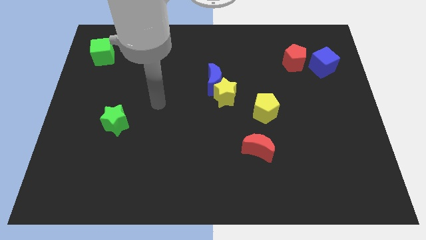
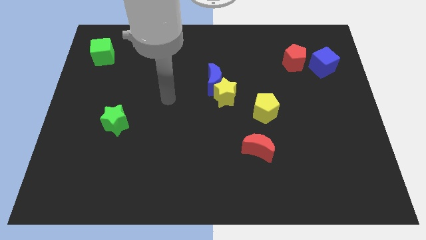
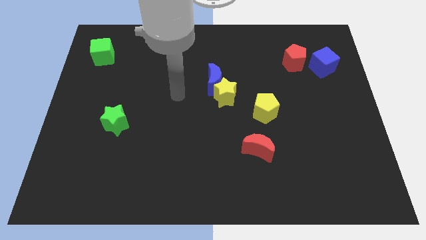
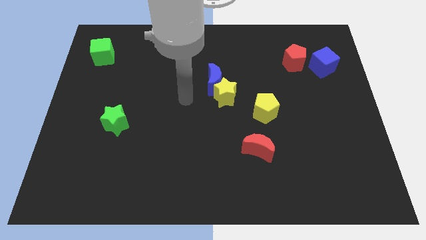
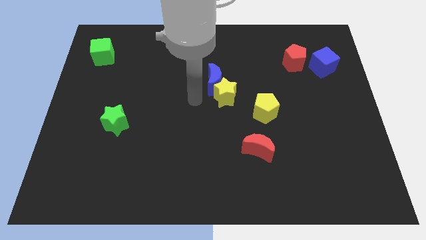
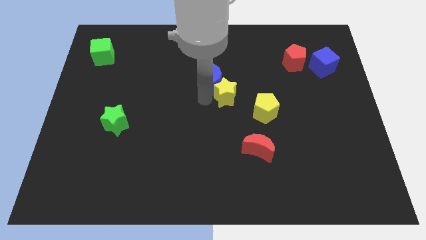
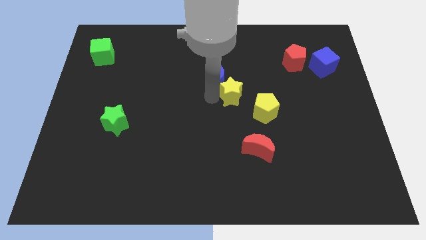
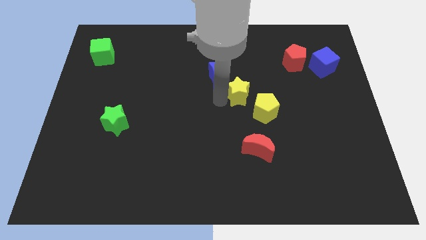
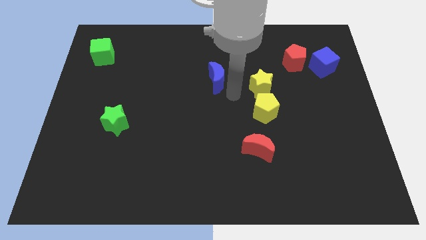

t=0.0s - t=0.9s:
pull the blue moon apart from the yellow star

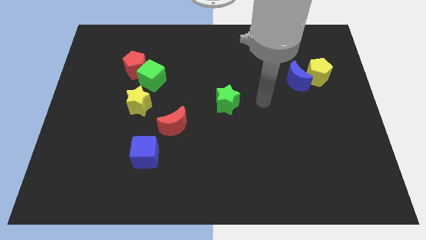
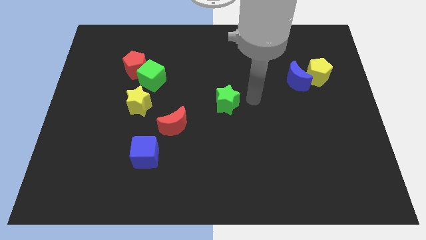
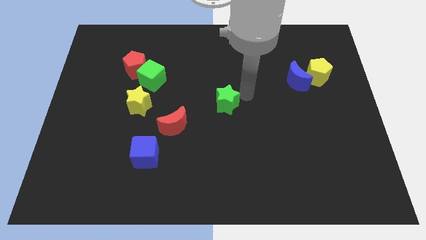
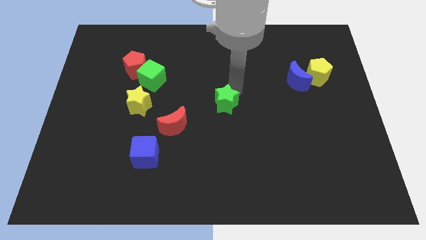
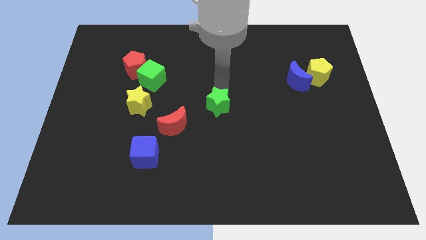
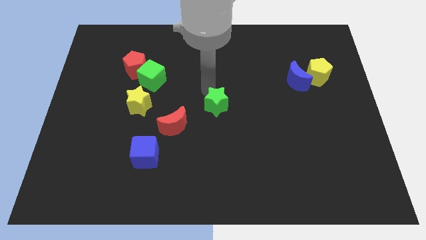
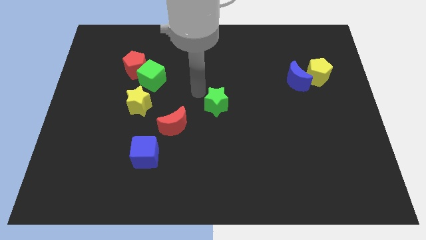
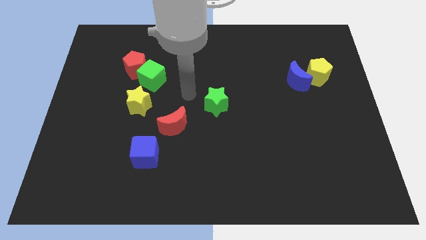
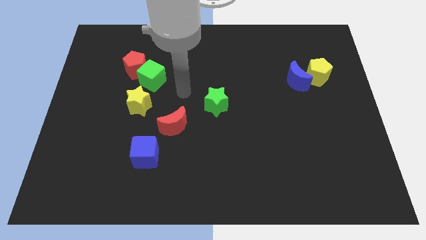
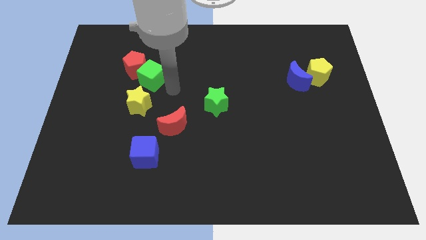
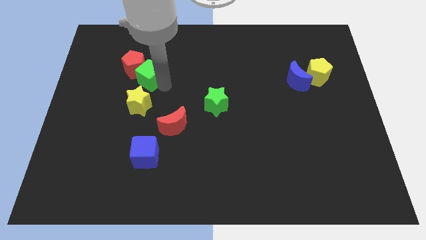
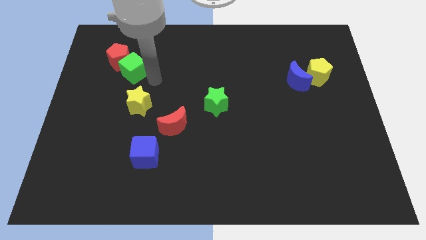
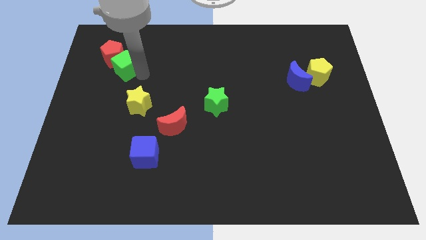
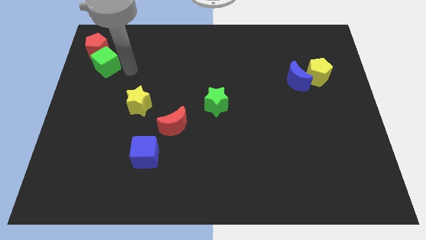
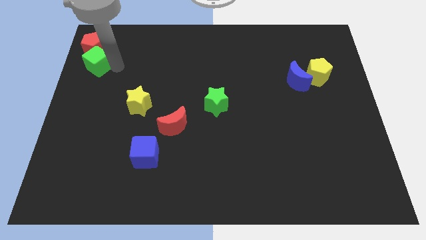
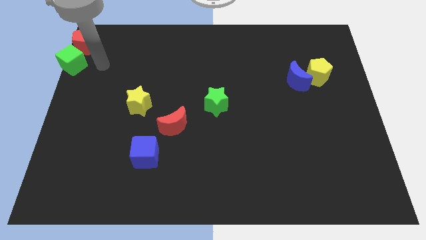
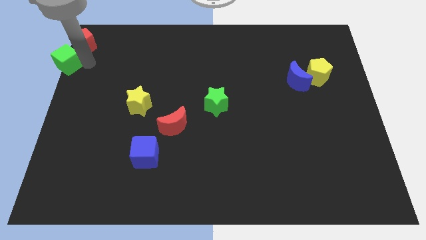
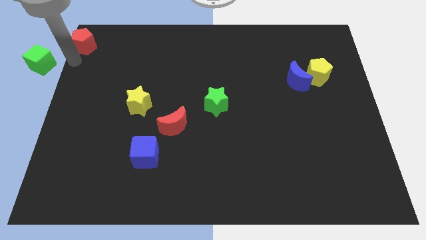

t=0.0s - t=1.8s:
move the red pentagon away from the green cube

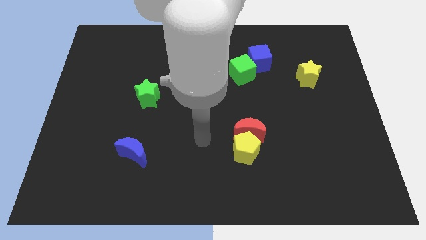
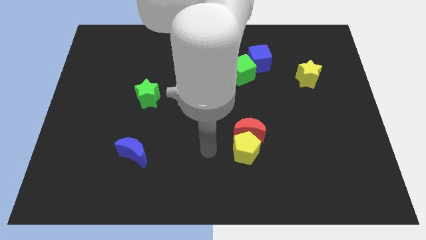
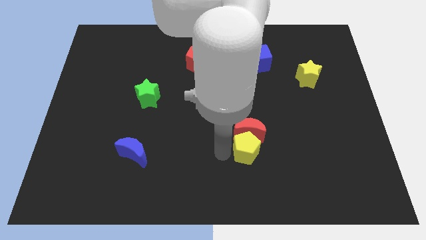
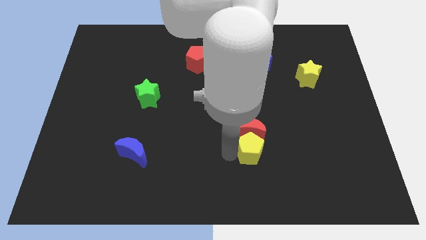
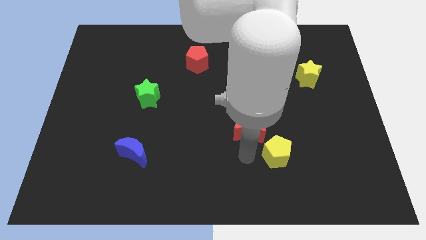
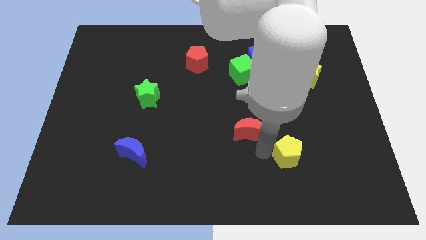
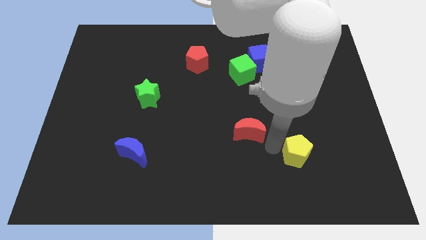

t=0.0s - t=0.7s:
move the red moon away from the yellow pentagon

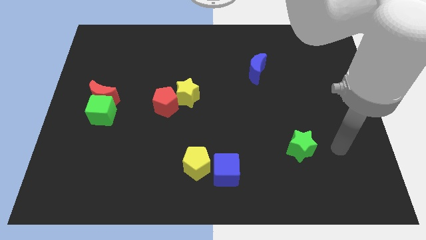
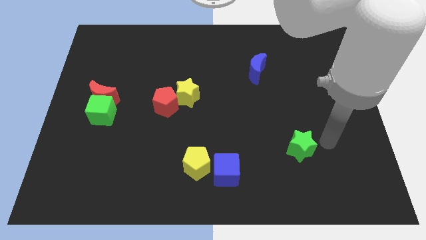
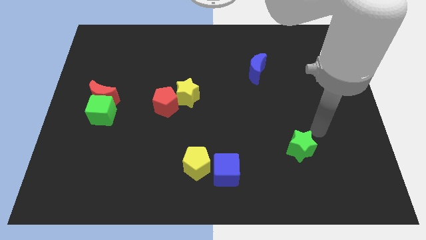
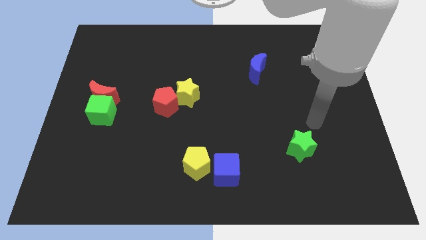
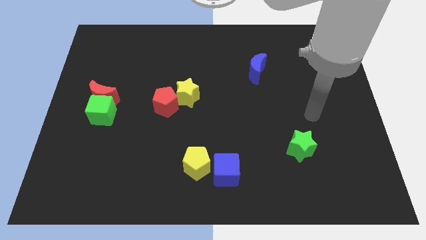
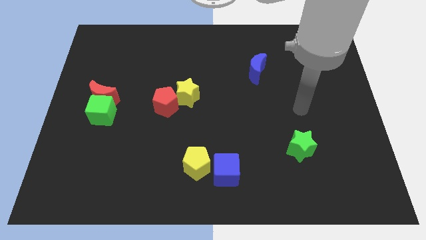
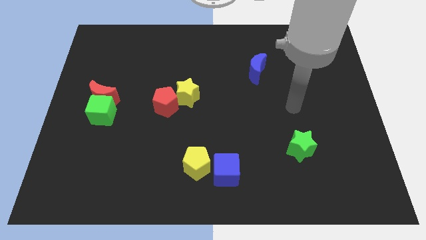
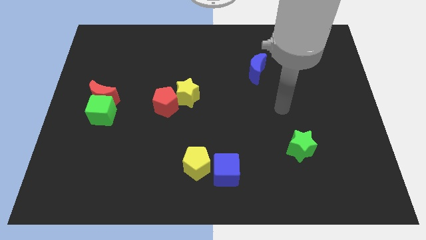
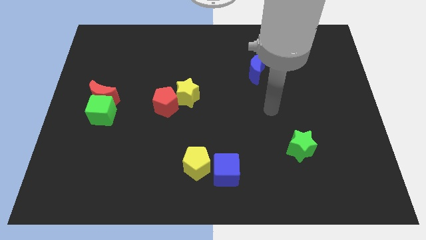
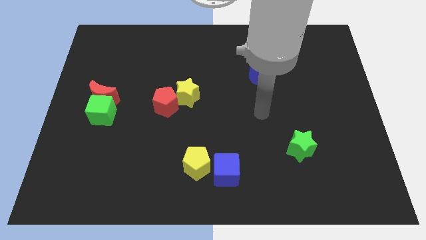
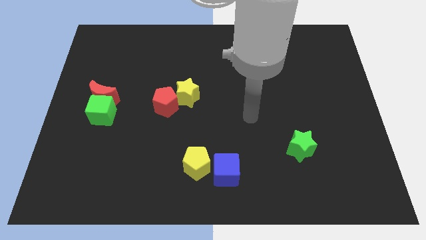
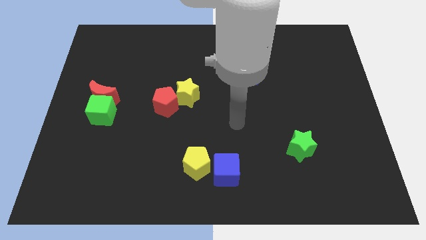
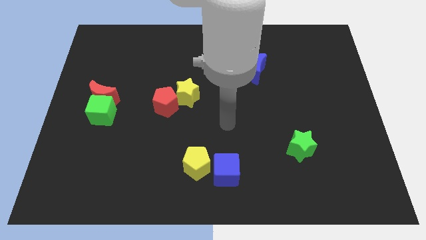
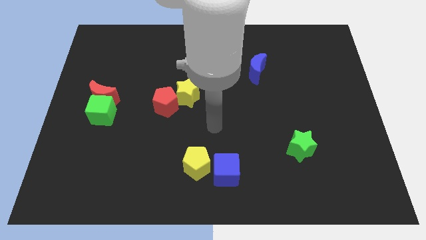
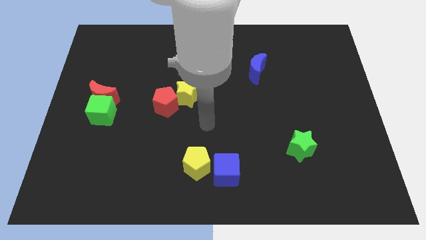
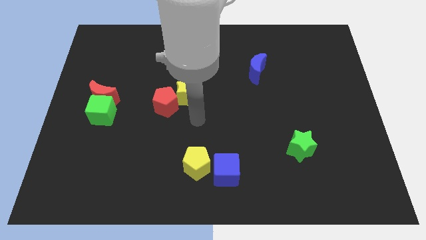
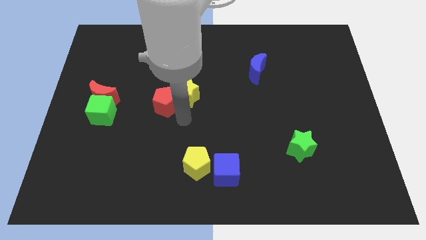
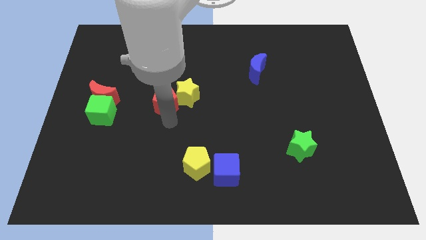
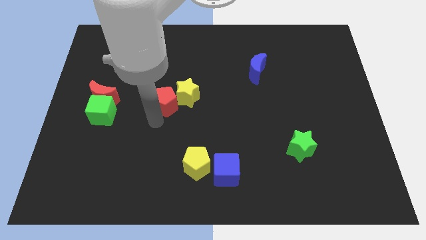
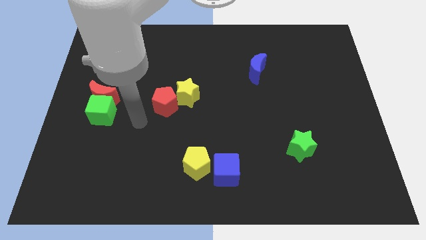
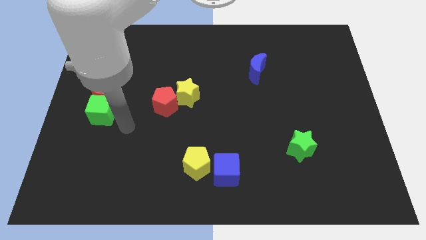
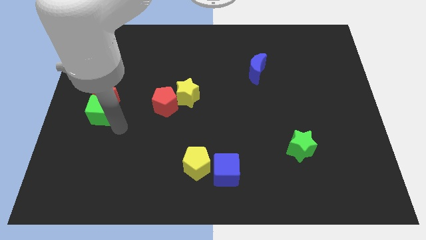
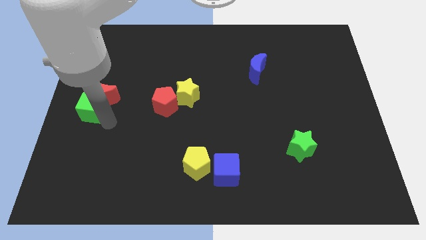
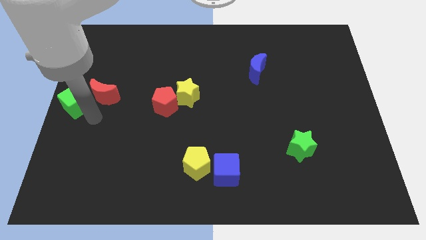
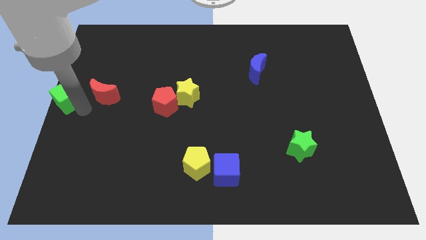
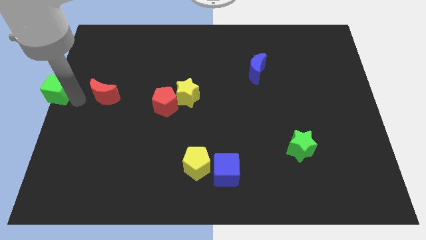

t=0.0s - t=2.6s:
move the red moon away from the green cube

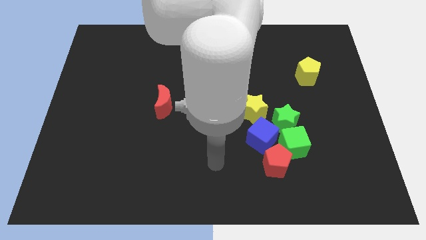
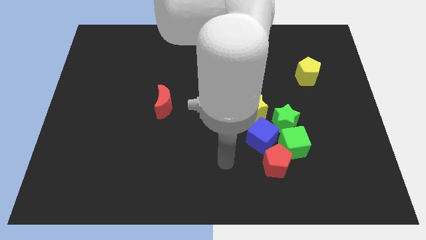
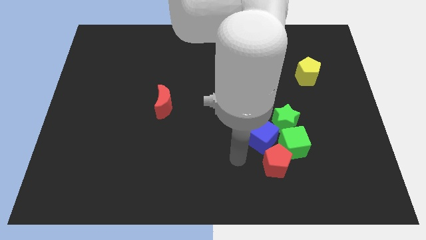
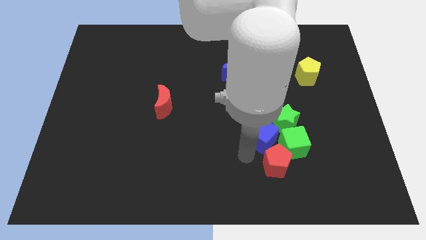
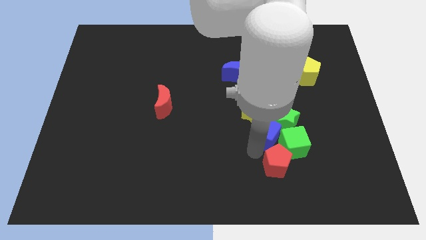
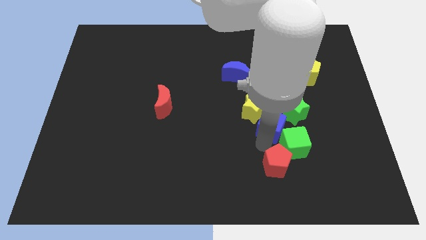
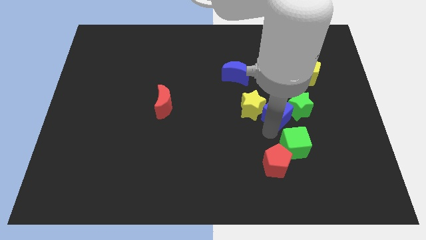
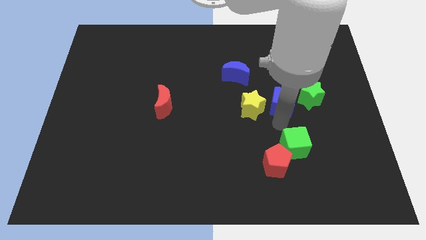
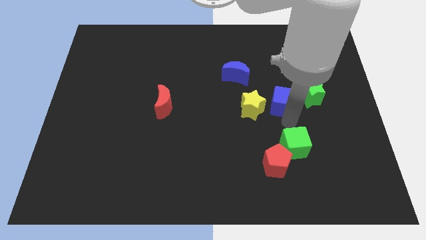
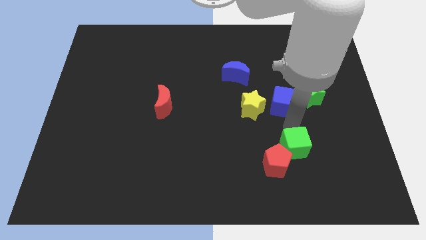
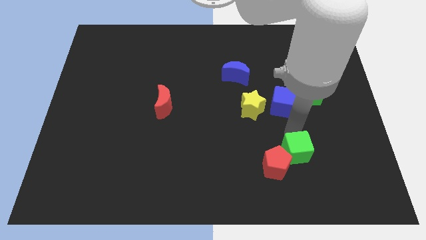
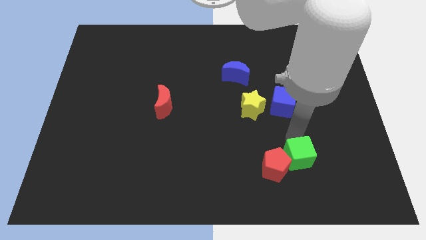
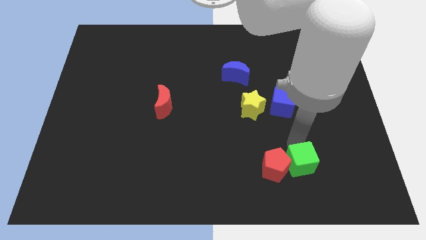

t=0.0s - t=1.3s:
separate the green cube from the group of blocks

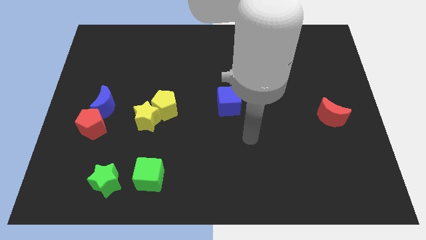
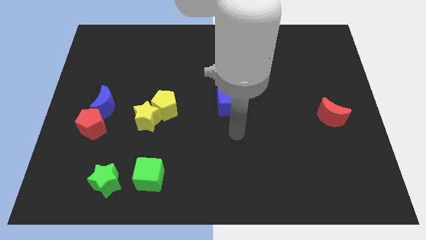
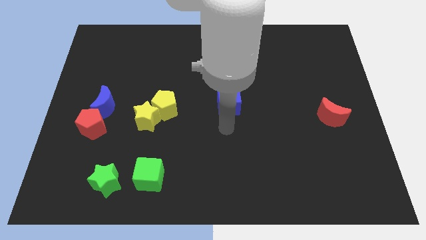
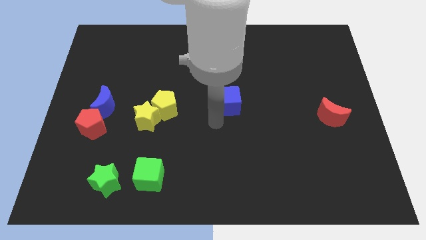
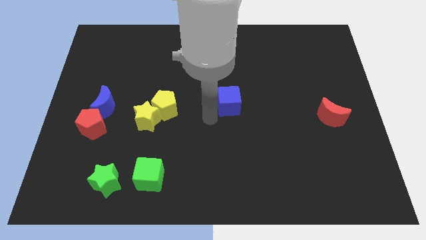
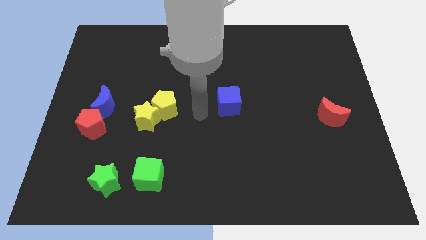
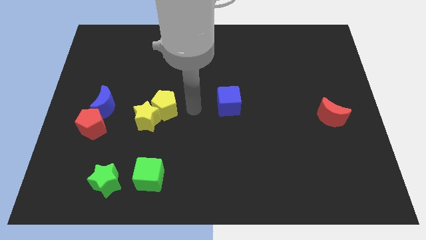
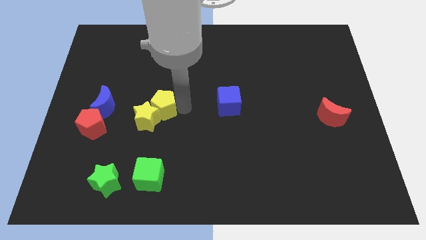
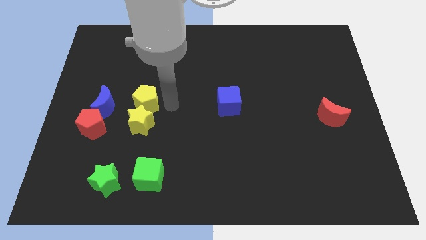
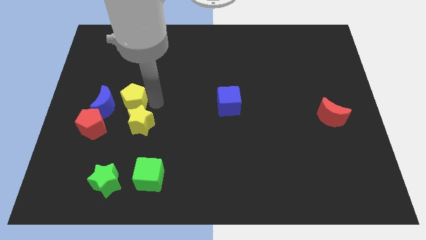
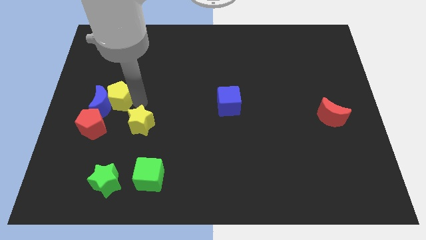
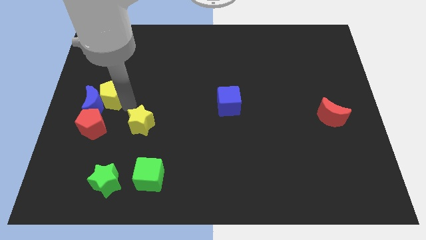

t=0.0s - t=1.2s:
separate the yellow star from the yellow pentagon

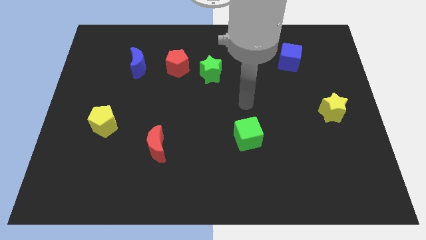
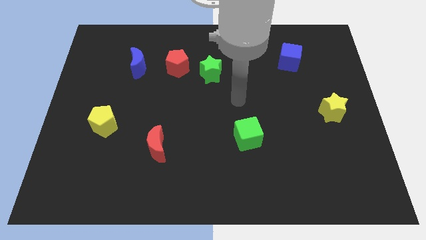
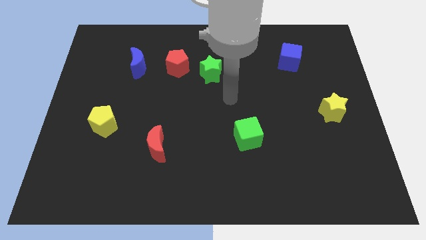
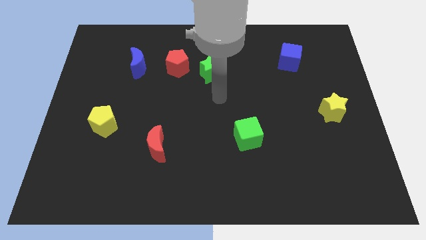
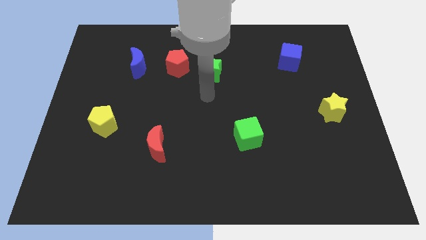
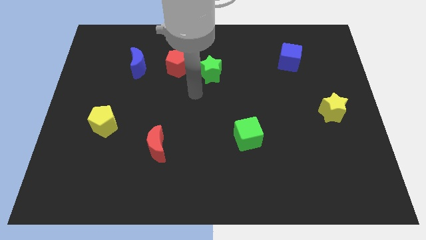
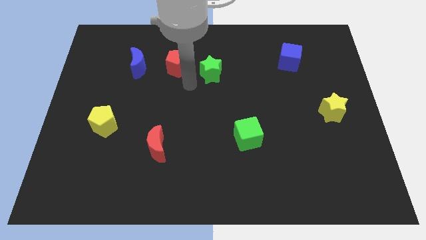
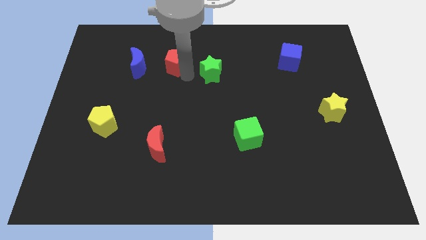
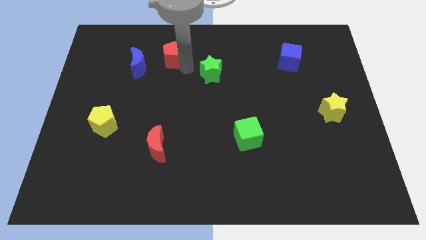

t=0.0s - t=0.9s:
separate the green star from the red pentagon
